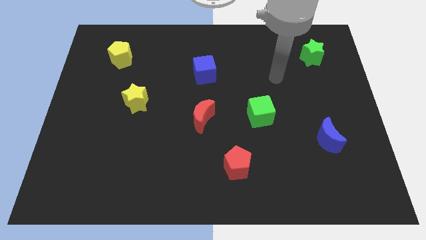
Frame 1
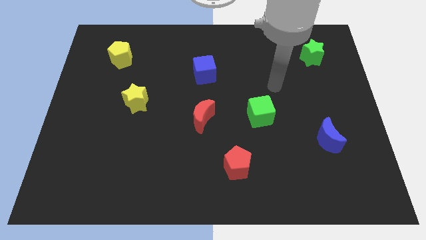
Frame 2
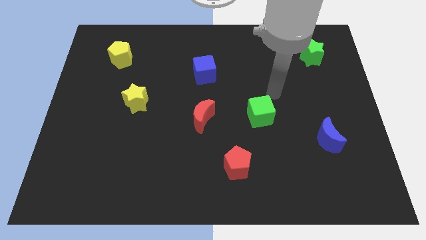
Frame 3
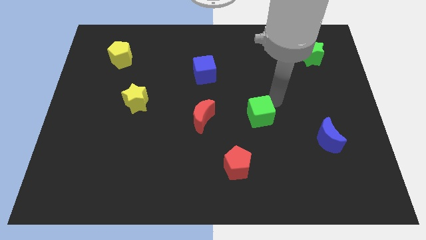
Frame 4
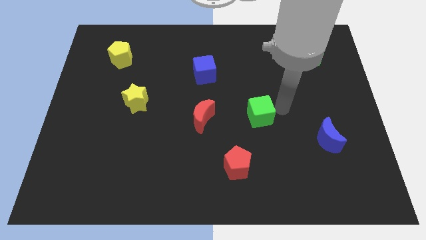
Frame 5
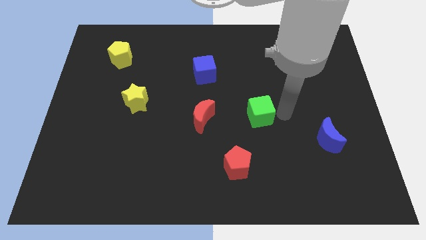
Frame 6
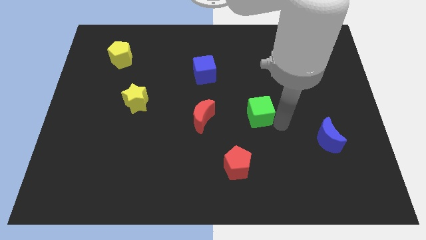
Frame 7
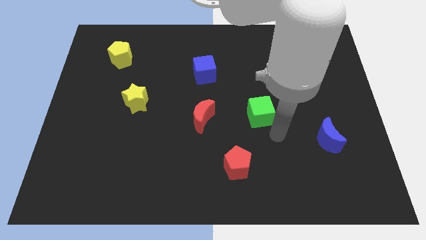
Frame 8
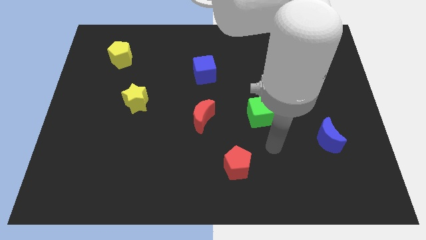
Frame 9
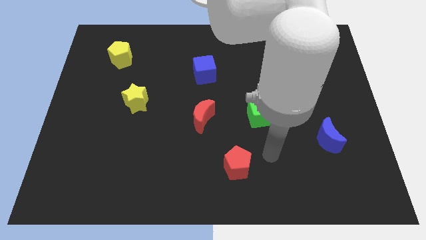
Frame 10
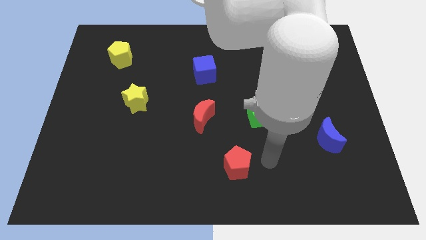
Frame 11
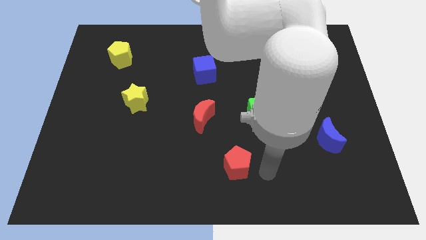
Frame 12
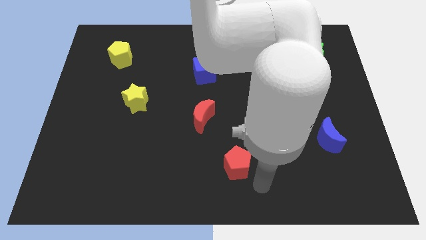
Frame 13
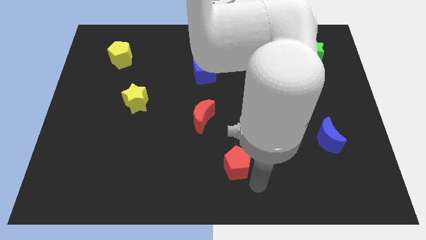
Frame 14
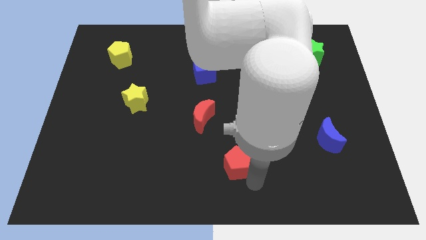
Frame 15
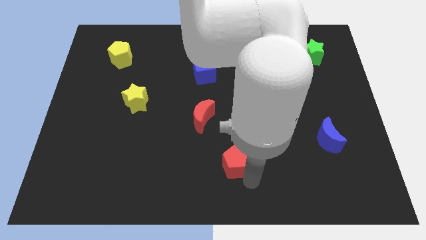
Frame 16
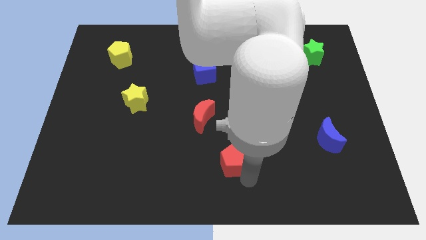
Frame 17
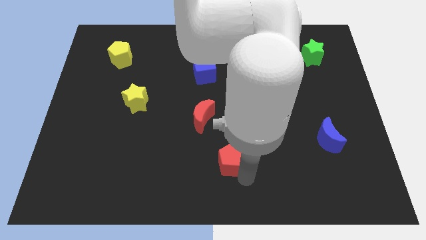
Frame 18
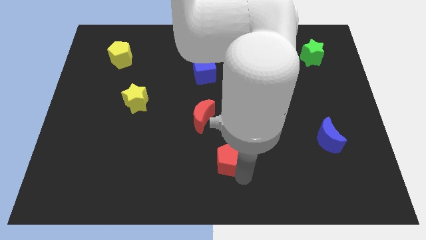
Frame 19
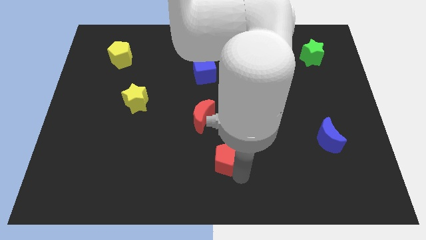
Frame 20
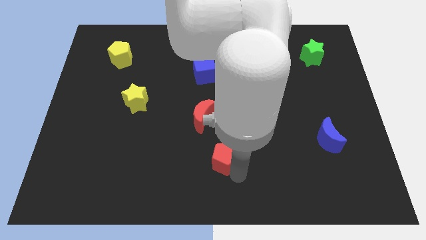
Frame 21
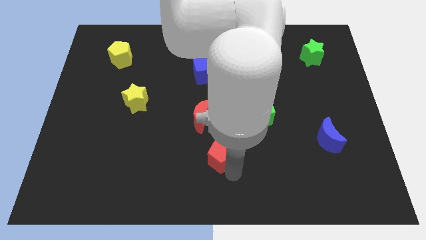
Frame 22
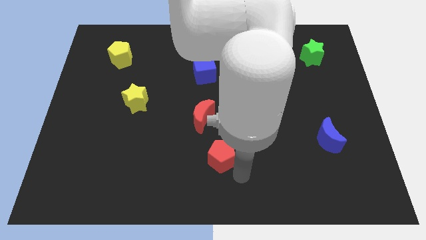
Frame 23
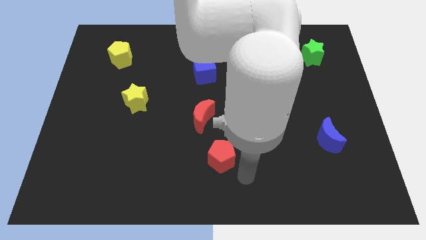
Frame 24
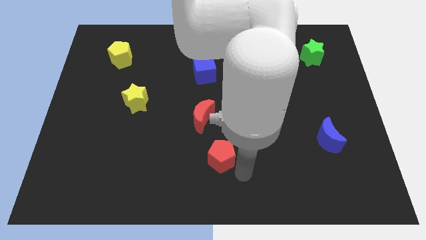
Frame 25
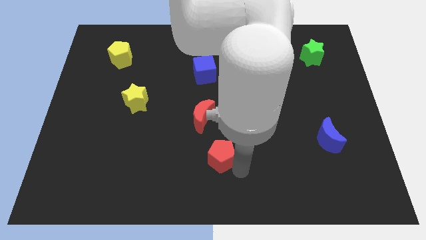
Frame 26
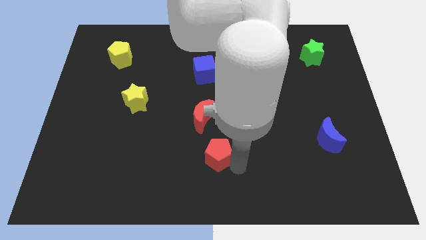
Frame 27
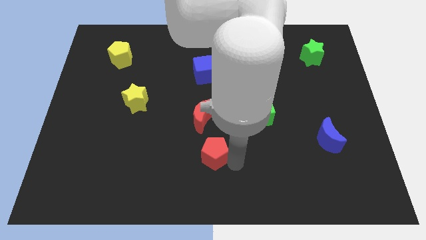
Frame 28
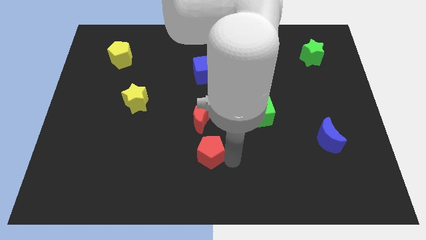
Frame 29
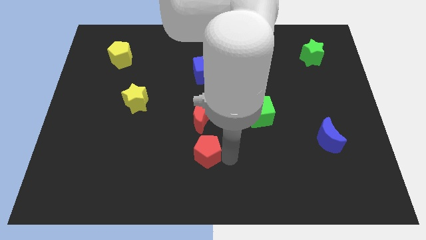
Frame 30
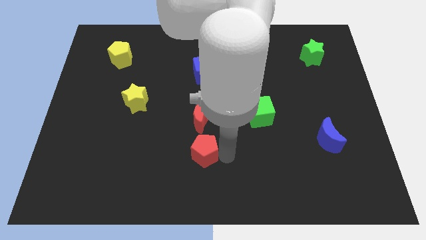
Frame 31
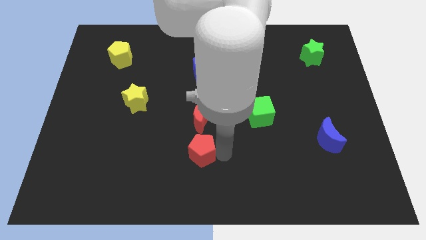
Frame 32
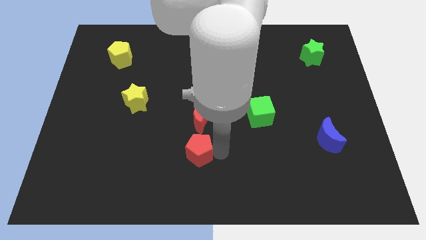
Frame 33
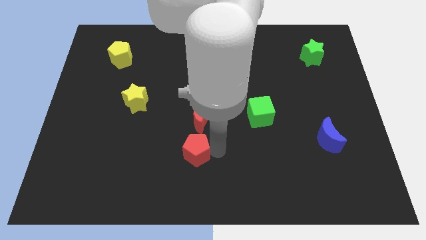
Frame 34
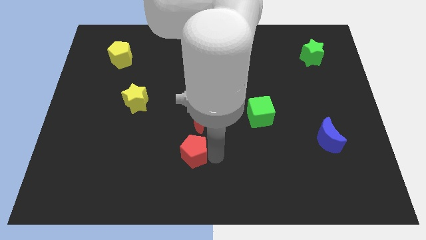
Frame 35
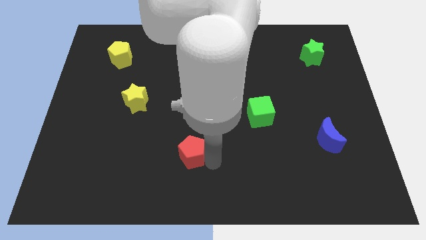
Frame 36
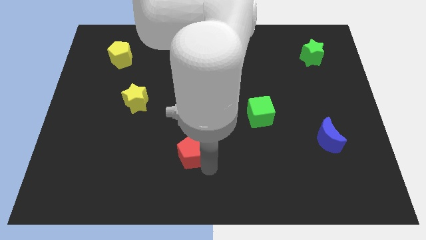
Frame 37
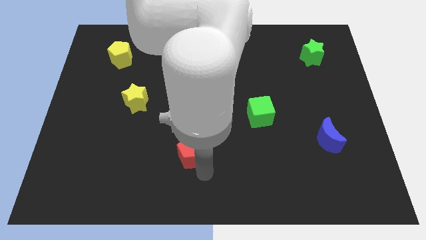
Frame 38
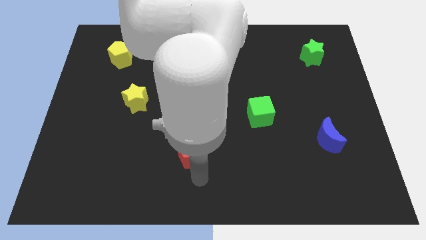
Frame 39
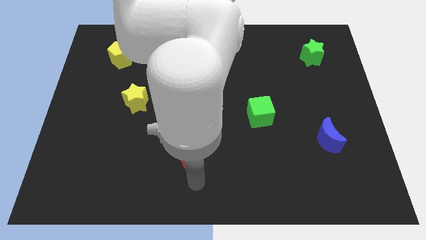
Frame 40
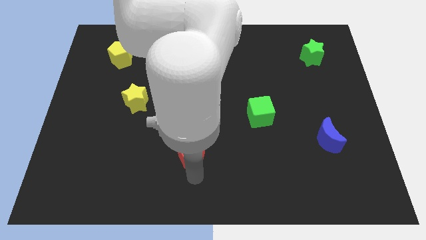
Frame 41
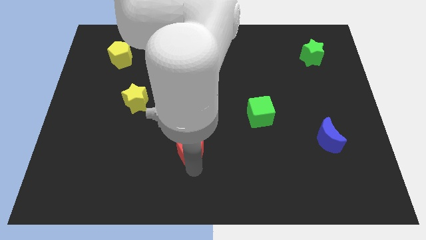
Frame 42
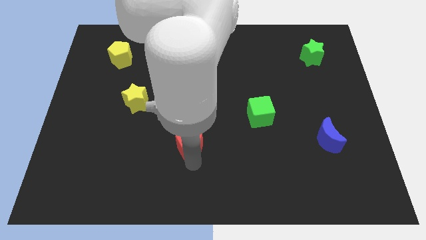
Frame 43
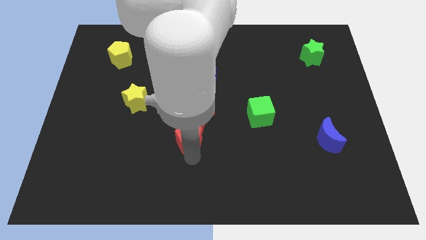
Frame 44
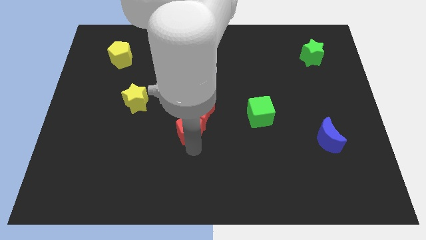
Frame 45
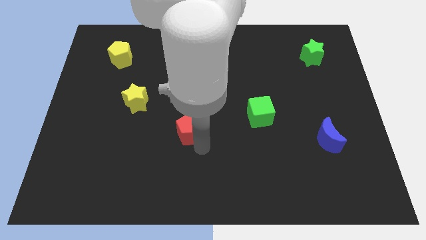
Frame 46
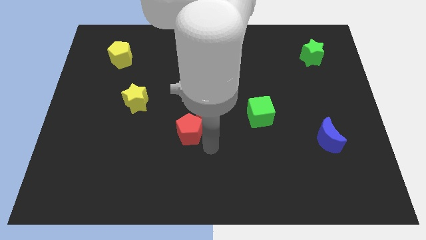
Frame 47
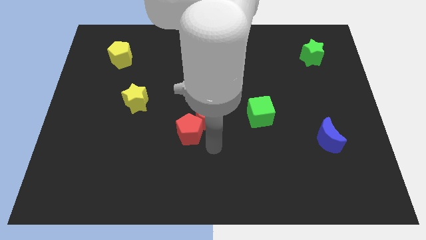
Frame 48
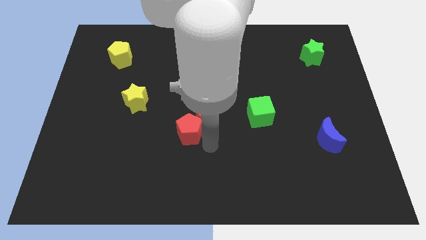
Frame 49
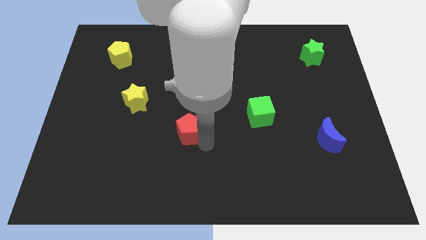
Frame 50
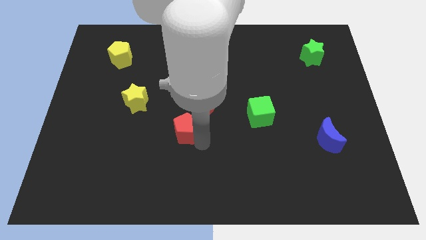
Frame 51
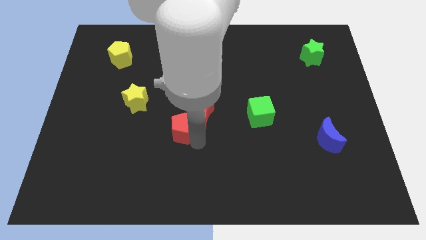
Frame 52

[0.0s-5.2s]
put the red pentagon to the left of the red moon

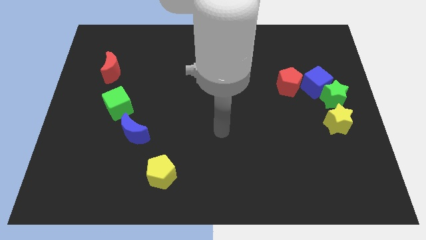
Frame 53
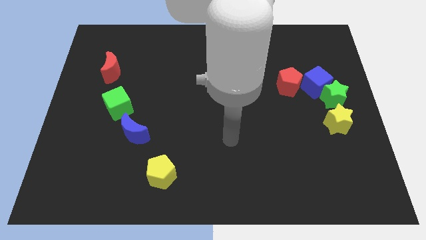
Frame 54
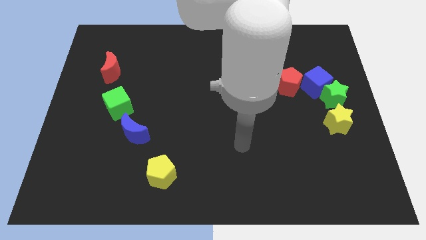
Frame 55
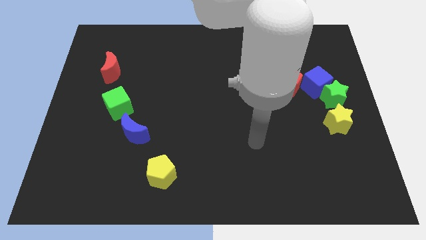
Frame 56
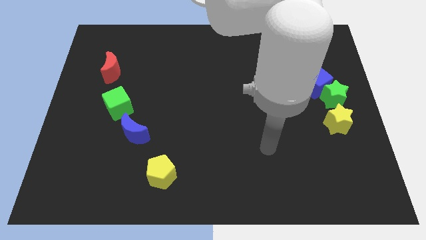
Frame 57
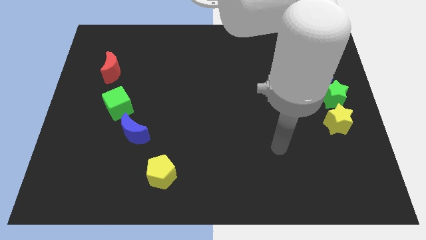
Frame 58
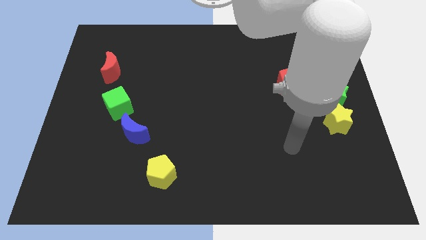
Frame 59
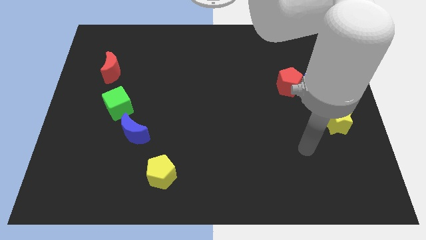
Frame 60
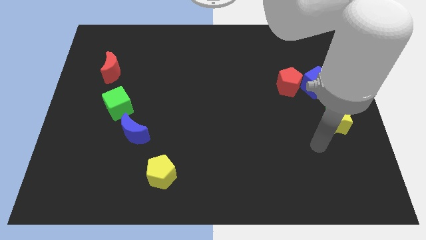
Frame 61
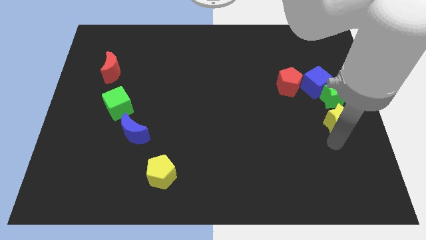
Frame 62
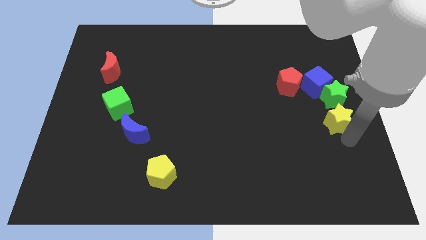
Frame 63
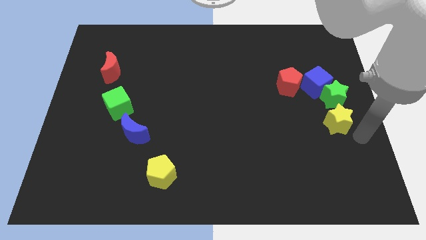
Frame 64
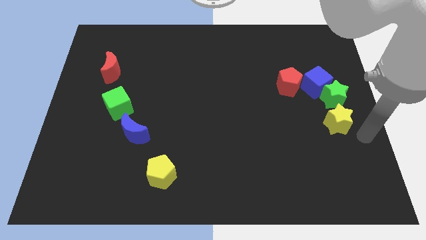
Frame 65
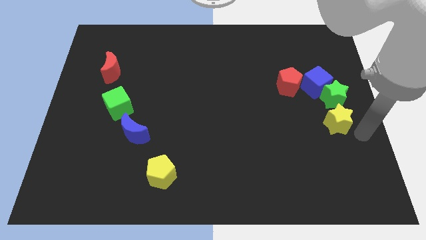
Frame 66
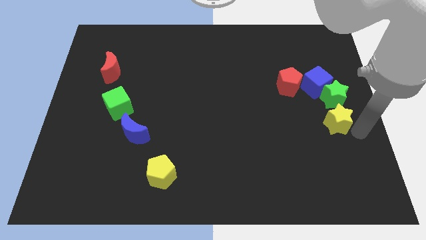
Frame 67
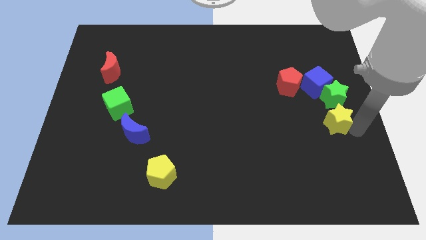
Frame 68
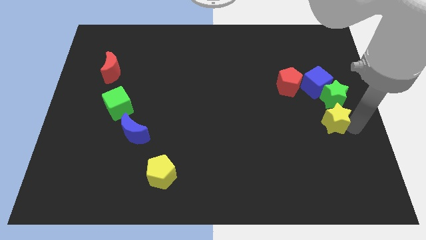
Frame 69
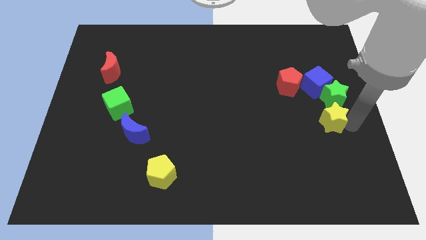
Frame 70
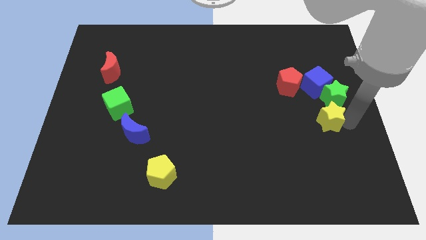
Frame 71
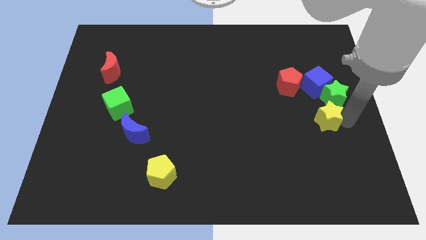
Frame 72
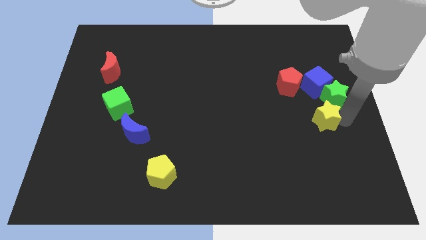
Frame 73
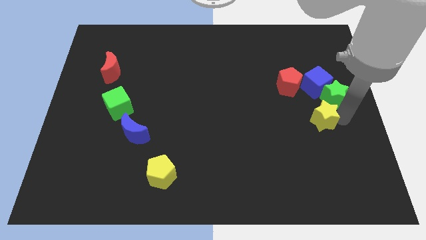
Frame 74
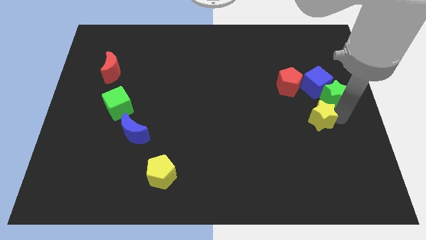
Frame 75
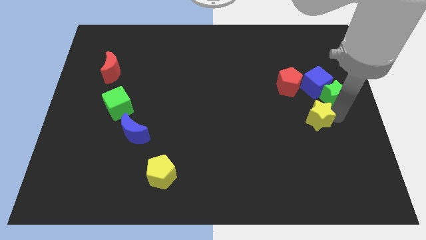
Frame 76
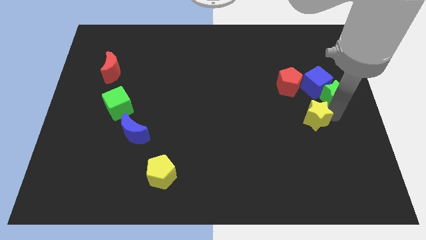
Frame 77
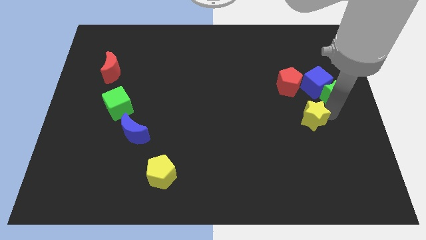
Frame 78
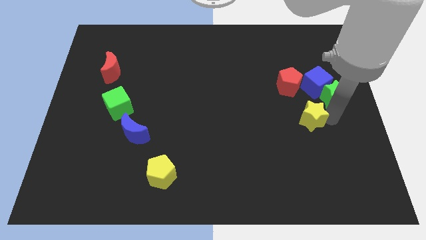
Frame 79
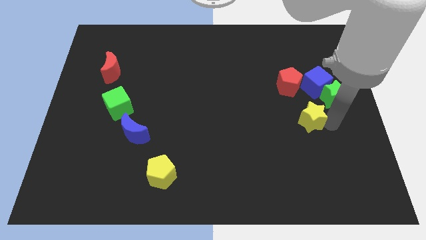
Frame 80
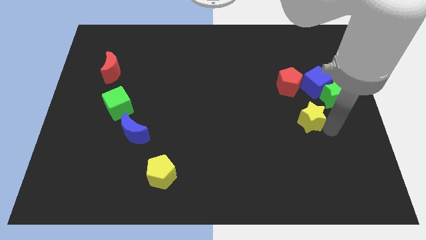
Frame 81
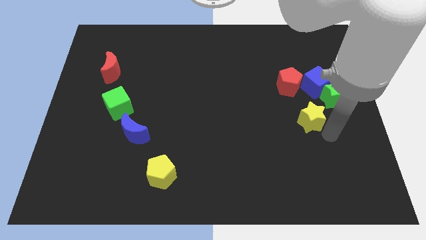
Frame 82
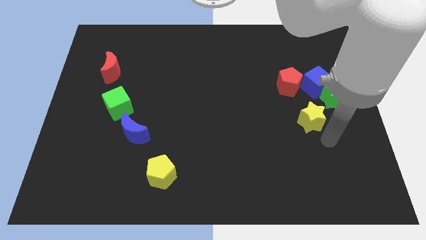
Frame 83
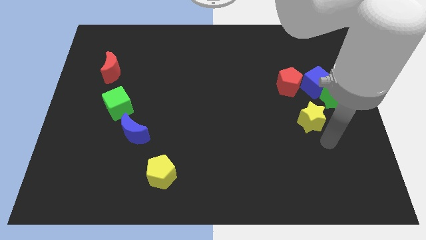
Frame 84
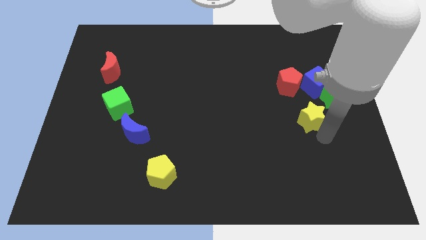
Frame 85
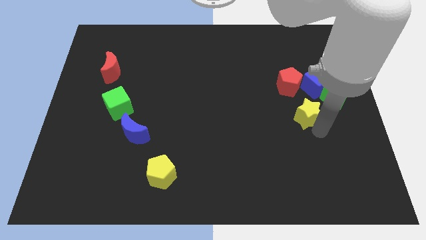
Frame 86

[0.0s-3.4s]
put the yellow star to the bottom left of the blue cube
